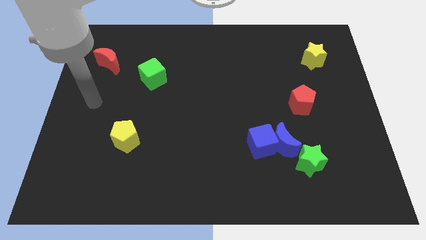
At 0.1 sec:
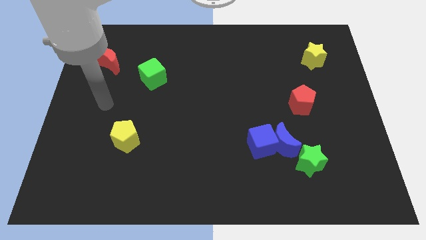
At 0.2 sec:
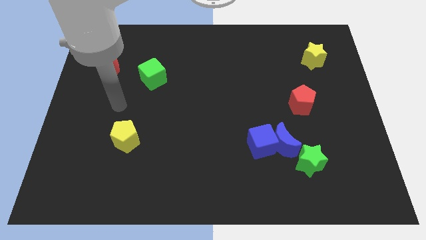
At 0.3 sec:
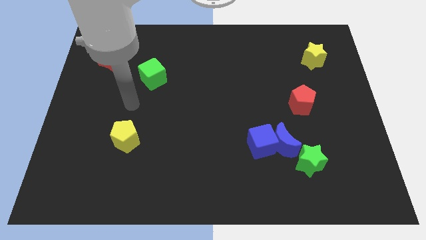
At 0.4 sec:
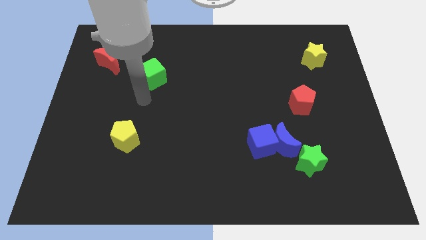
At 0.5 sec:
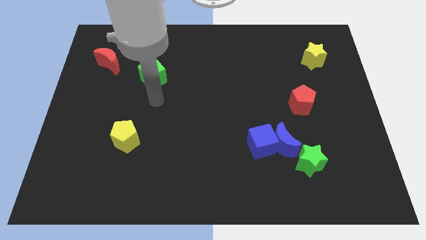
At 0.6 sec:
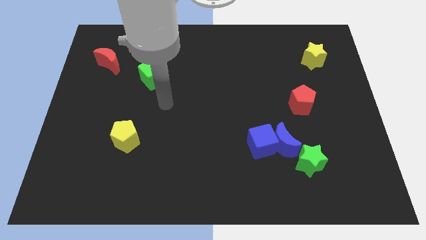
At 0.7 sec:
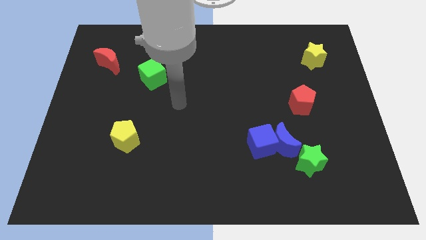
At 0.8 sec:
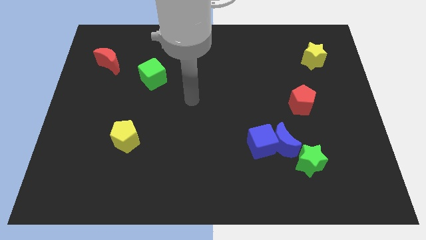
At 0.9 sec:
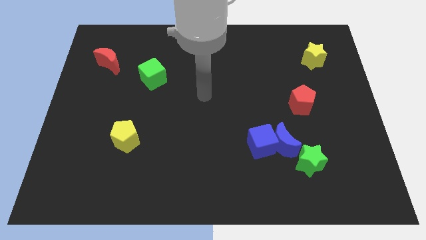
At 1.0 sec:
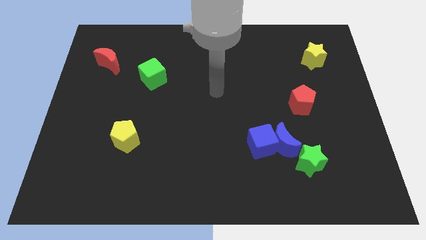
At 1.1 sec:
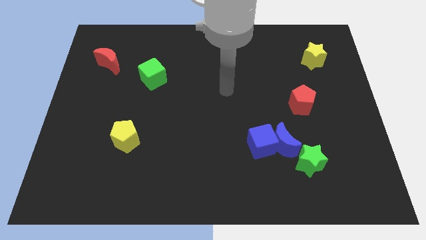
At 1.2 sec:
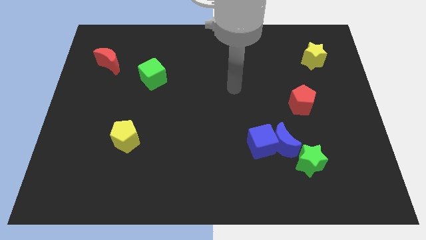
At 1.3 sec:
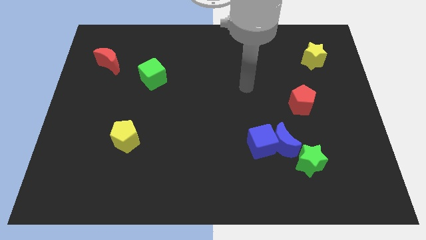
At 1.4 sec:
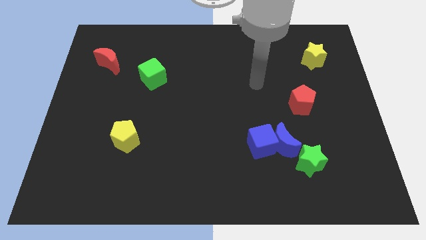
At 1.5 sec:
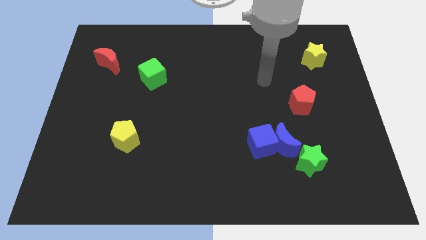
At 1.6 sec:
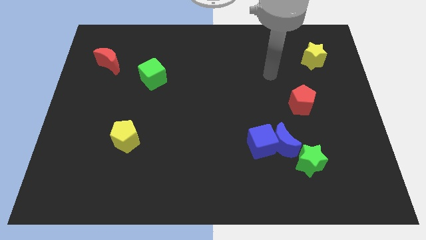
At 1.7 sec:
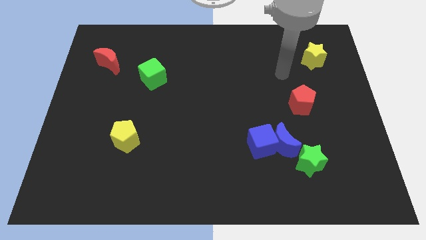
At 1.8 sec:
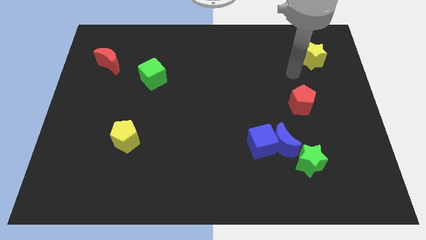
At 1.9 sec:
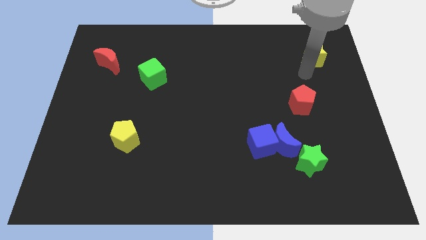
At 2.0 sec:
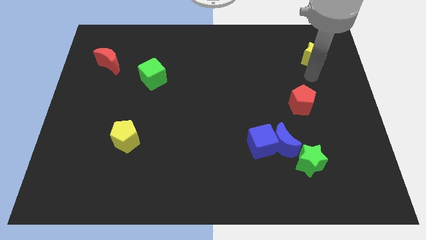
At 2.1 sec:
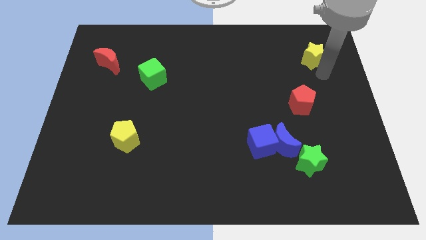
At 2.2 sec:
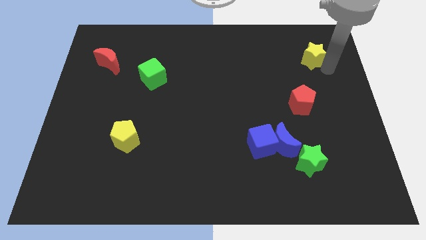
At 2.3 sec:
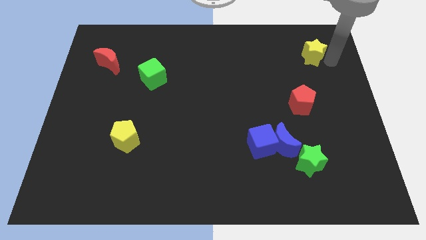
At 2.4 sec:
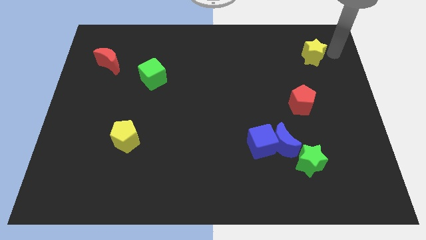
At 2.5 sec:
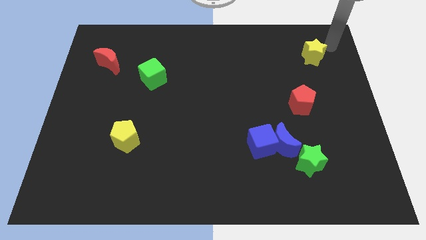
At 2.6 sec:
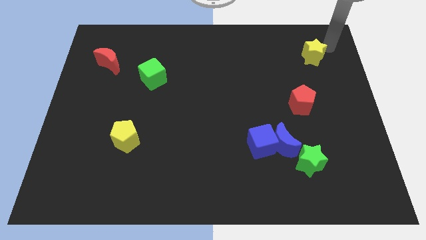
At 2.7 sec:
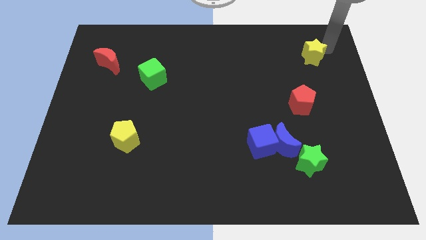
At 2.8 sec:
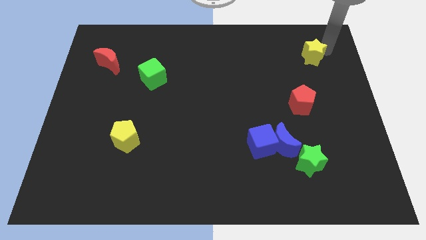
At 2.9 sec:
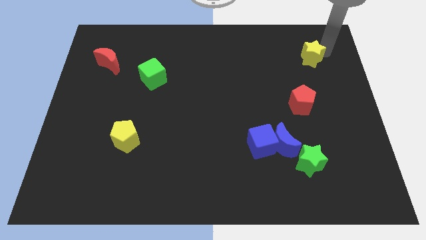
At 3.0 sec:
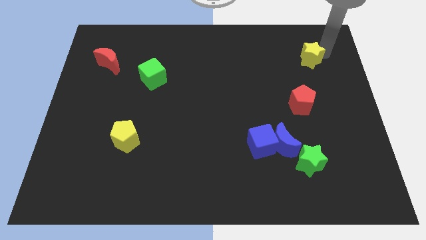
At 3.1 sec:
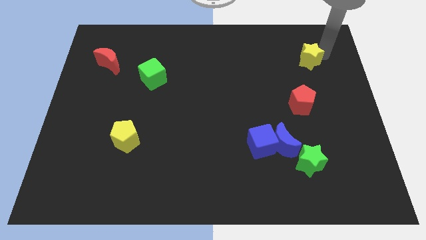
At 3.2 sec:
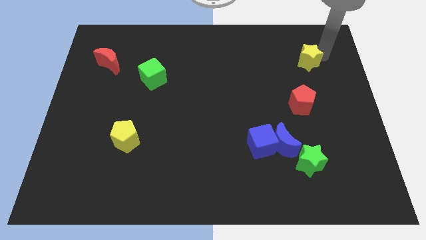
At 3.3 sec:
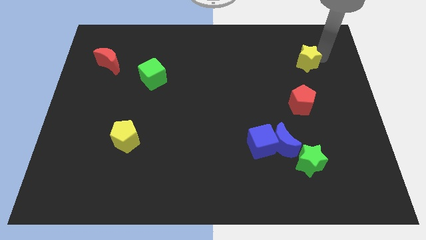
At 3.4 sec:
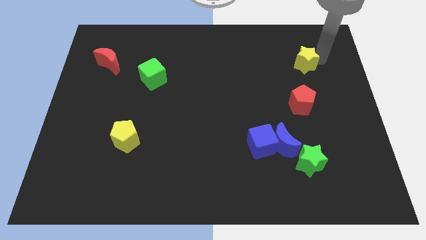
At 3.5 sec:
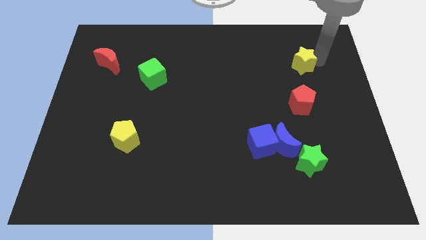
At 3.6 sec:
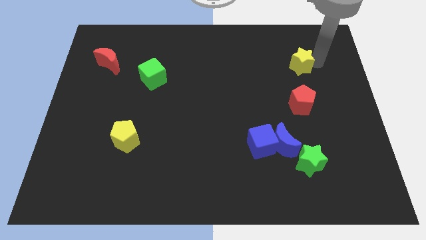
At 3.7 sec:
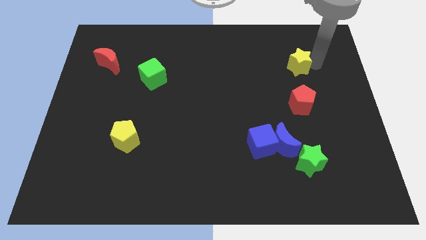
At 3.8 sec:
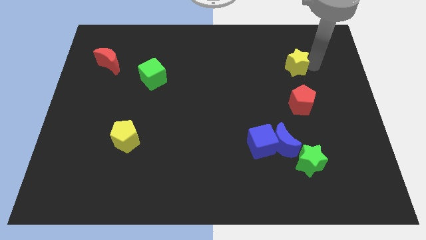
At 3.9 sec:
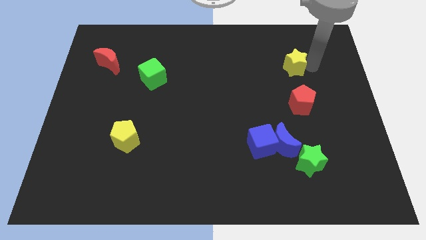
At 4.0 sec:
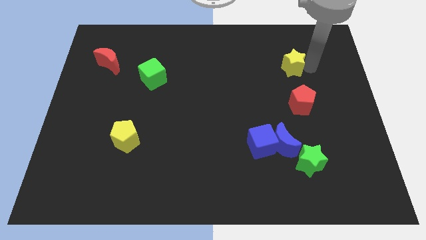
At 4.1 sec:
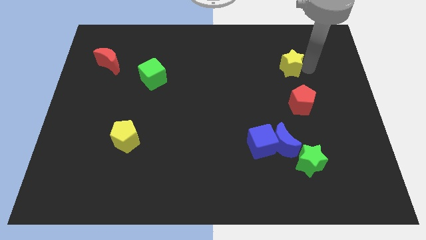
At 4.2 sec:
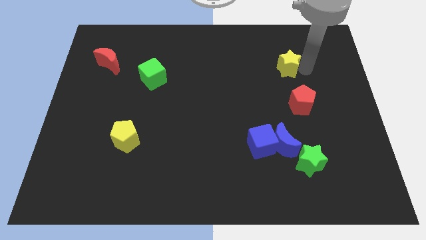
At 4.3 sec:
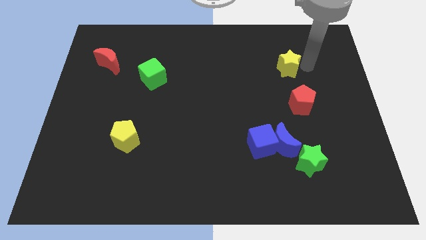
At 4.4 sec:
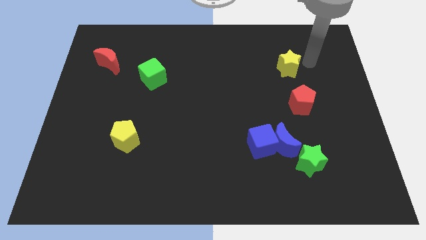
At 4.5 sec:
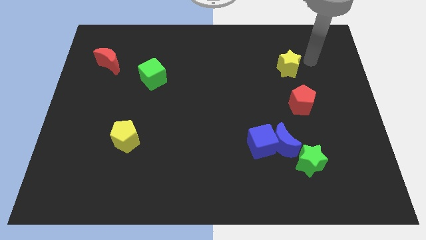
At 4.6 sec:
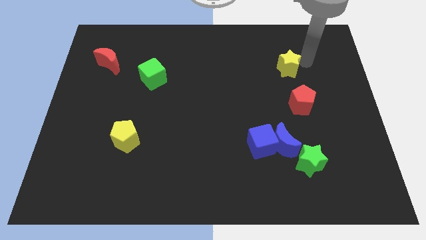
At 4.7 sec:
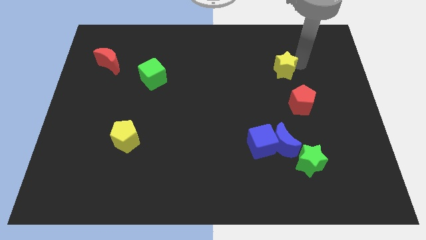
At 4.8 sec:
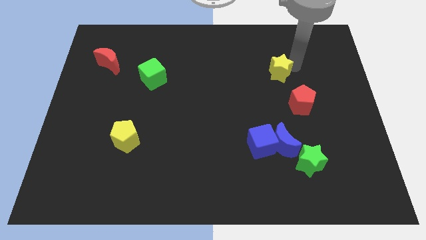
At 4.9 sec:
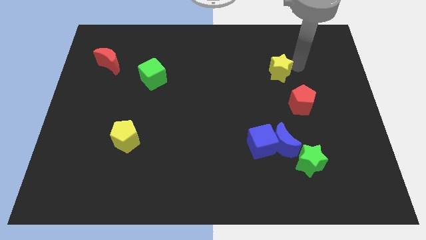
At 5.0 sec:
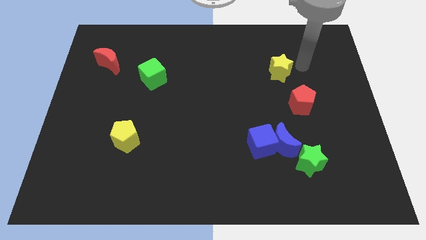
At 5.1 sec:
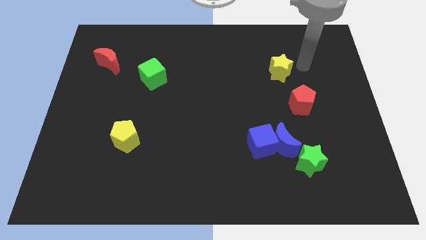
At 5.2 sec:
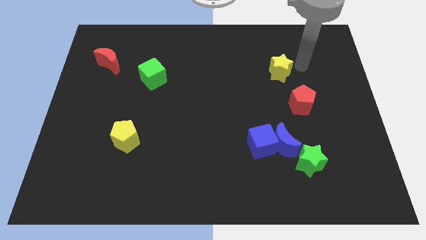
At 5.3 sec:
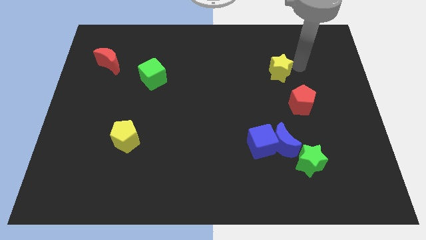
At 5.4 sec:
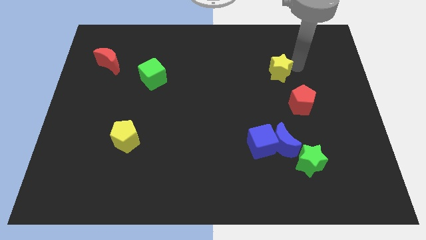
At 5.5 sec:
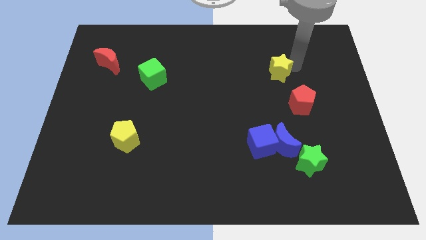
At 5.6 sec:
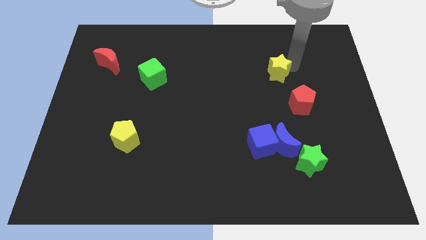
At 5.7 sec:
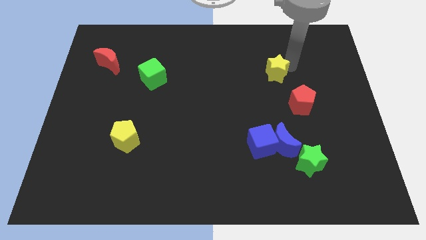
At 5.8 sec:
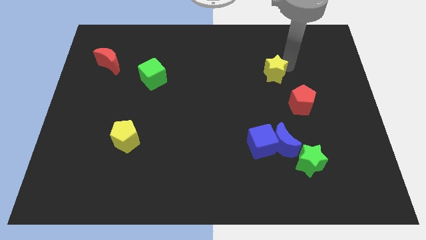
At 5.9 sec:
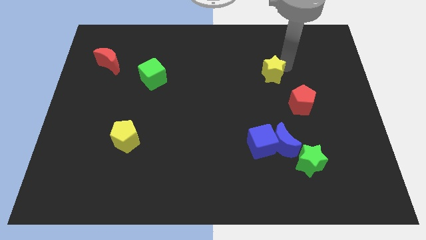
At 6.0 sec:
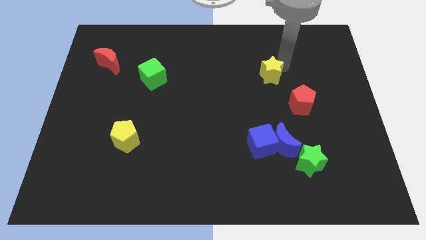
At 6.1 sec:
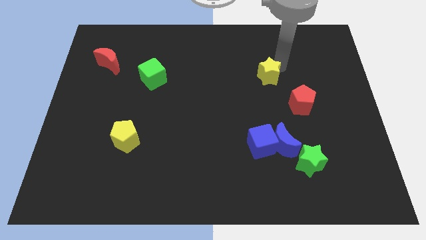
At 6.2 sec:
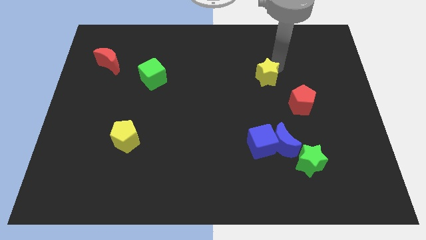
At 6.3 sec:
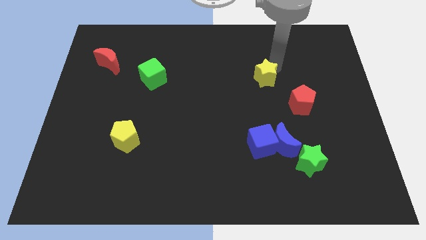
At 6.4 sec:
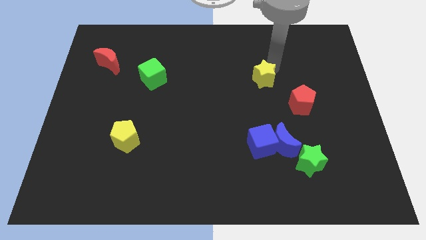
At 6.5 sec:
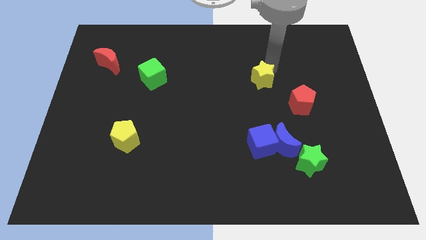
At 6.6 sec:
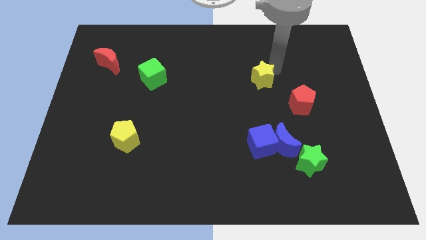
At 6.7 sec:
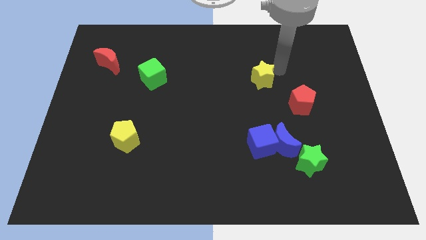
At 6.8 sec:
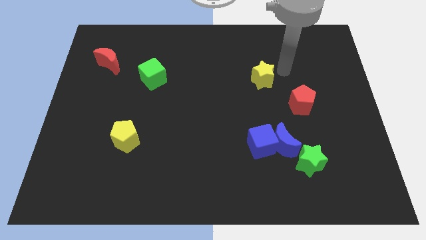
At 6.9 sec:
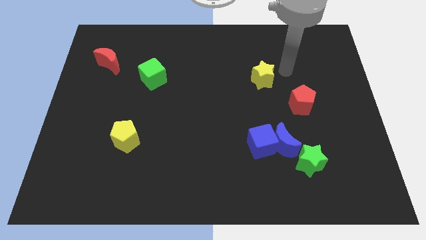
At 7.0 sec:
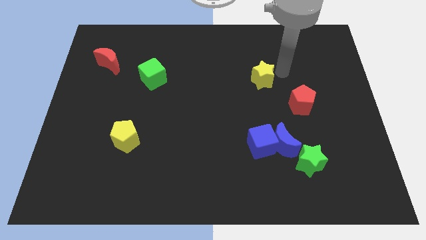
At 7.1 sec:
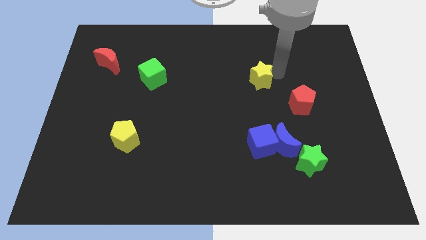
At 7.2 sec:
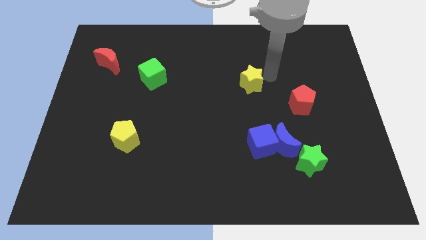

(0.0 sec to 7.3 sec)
put the yellow star to the center of the board
